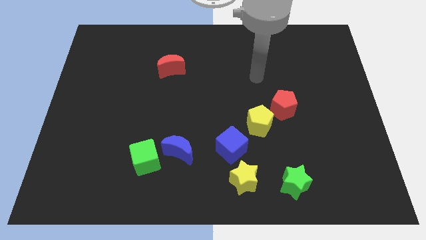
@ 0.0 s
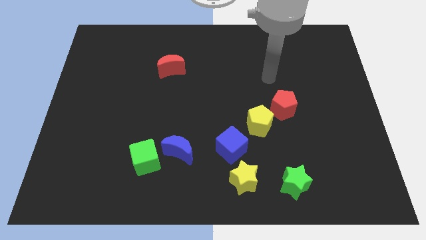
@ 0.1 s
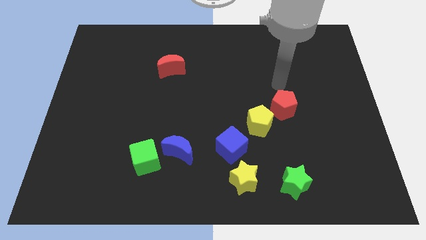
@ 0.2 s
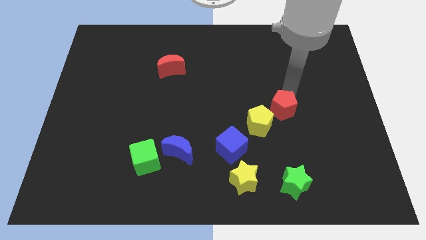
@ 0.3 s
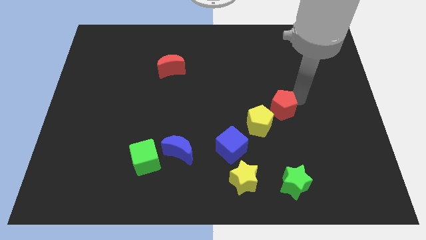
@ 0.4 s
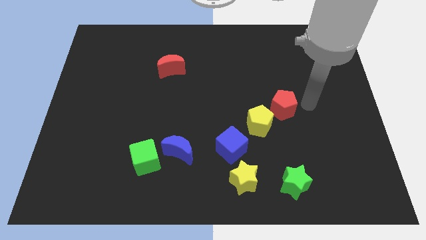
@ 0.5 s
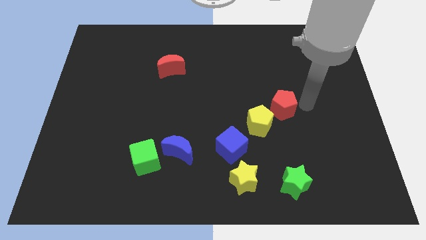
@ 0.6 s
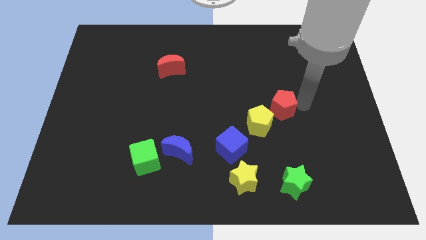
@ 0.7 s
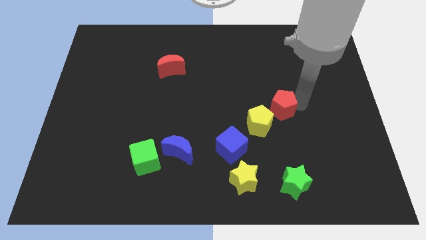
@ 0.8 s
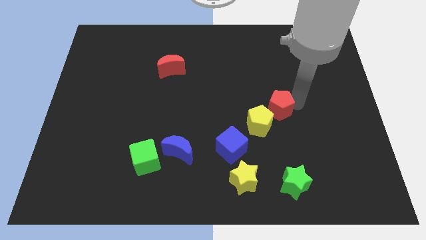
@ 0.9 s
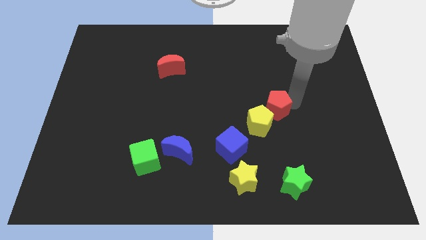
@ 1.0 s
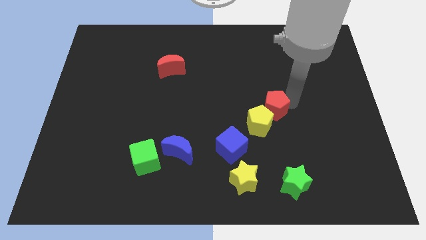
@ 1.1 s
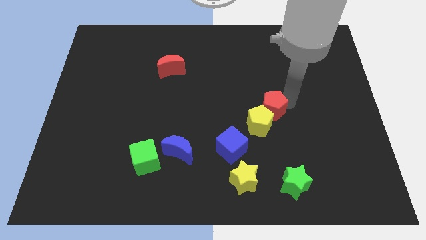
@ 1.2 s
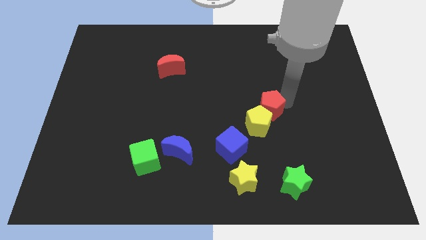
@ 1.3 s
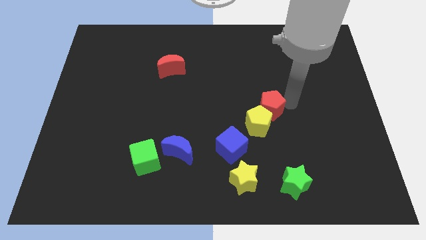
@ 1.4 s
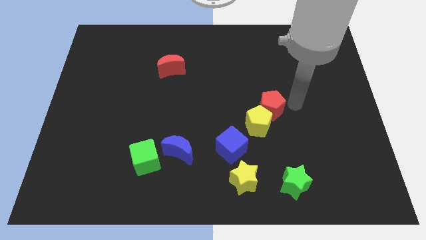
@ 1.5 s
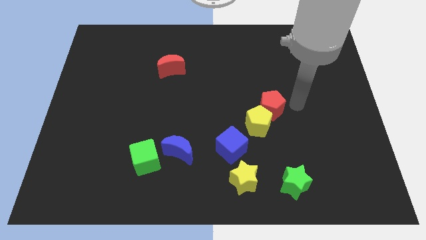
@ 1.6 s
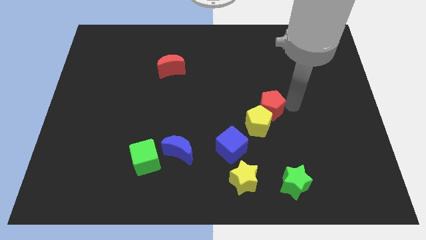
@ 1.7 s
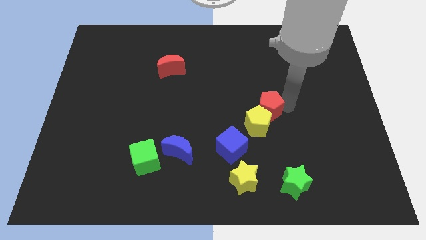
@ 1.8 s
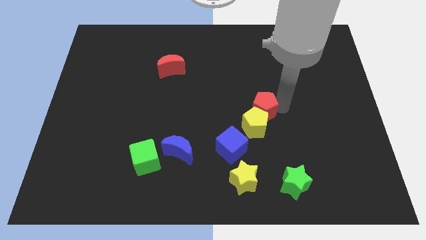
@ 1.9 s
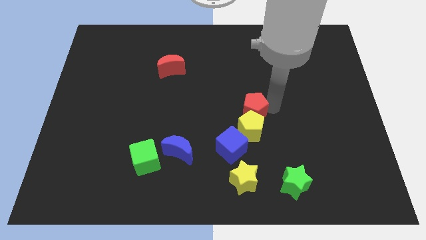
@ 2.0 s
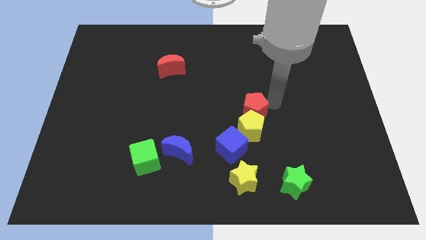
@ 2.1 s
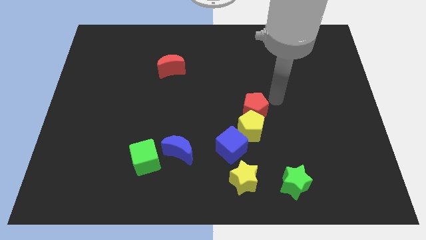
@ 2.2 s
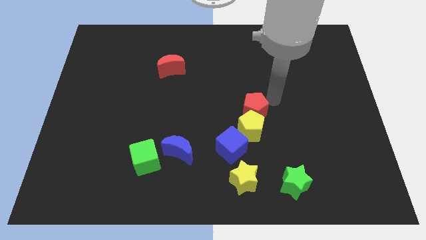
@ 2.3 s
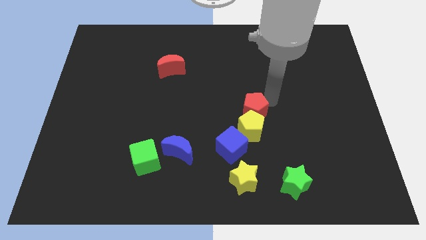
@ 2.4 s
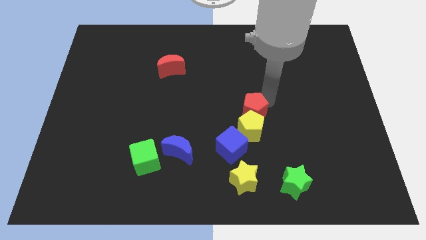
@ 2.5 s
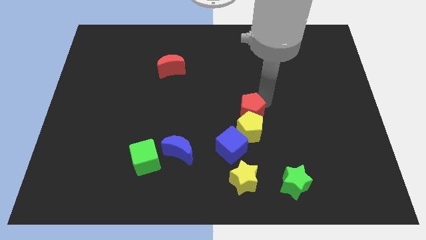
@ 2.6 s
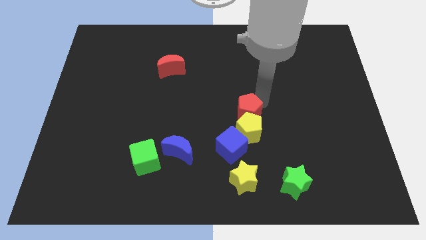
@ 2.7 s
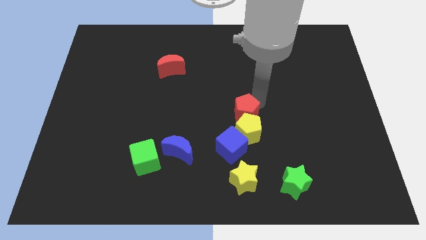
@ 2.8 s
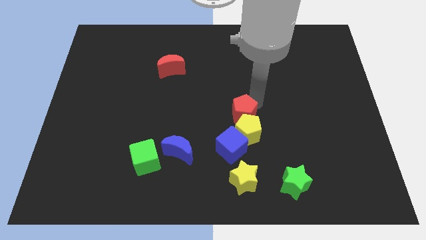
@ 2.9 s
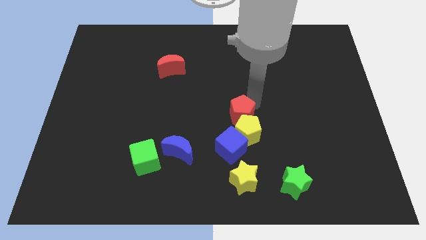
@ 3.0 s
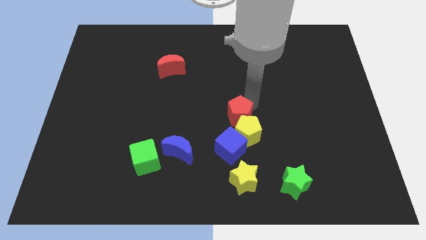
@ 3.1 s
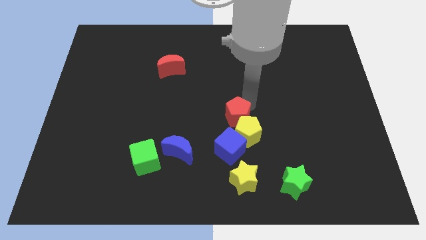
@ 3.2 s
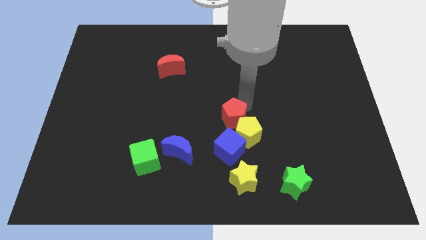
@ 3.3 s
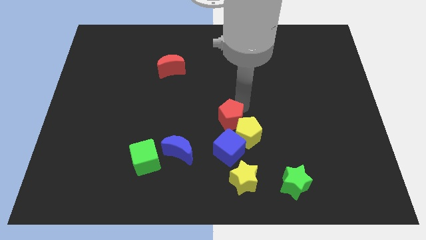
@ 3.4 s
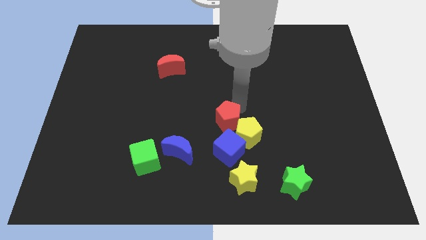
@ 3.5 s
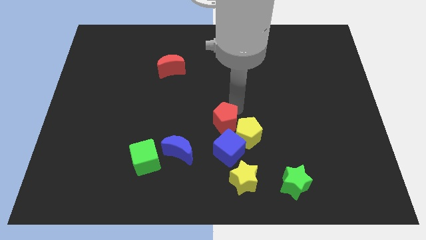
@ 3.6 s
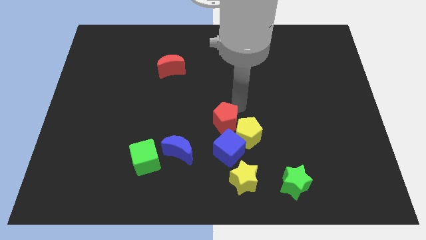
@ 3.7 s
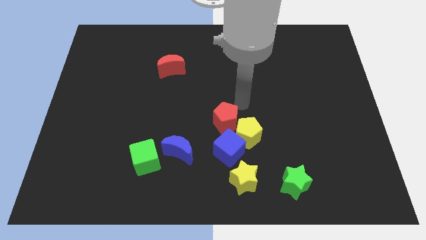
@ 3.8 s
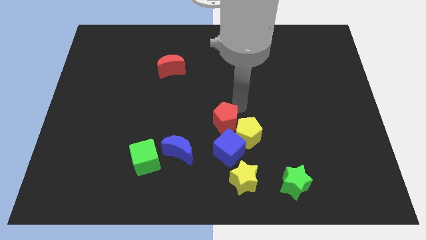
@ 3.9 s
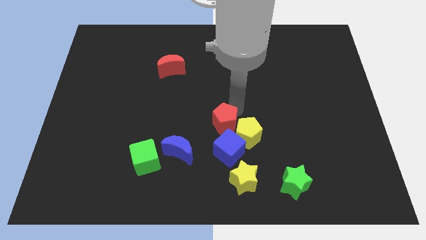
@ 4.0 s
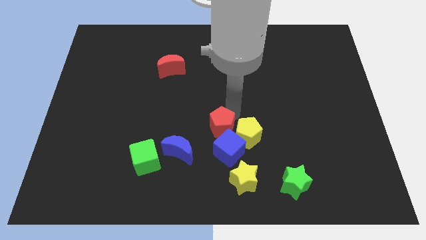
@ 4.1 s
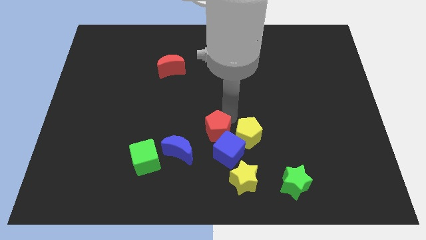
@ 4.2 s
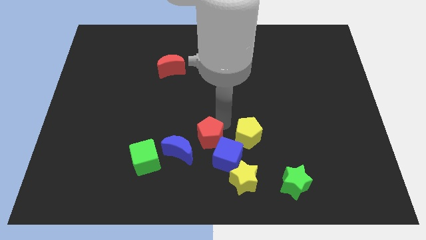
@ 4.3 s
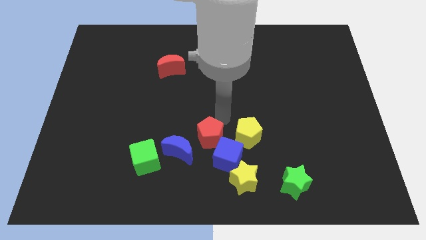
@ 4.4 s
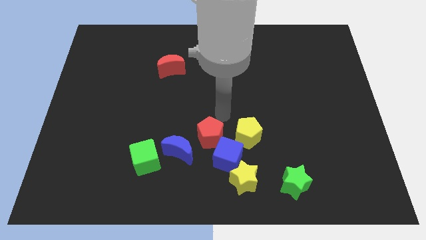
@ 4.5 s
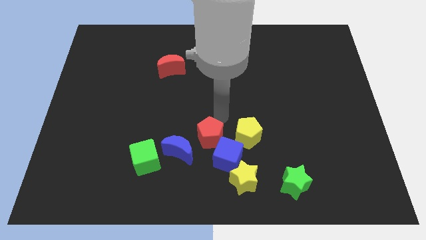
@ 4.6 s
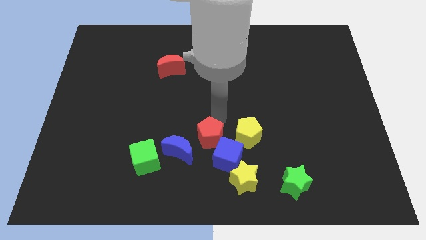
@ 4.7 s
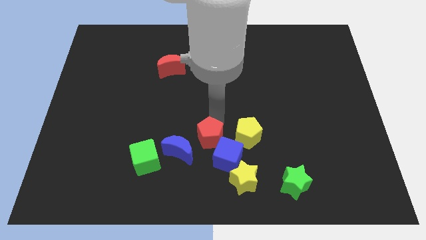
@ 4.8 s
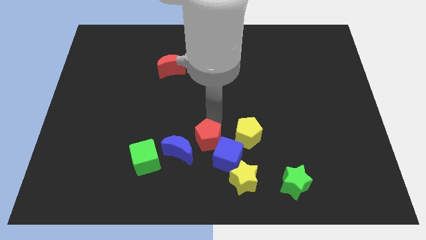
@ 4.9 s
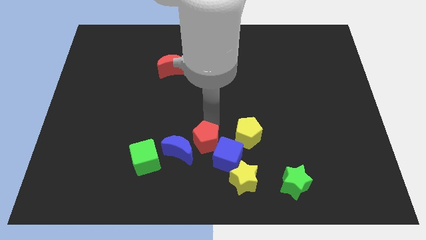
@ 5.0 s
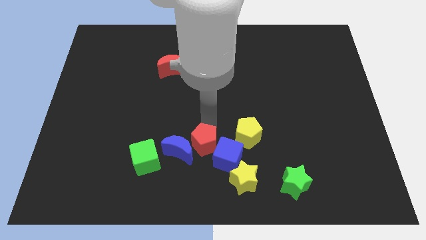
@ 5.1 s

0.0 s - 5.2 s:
slide the red pentagon right of the green cube

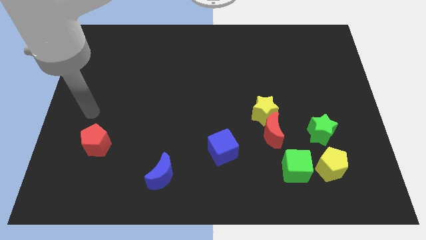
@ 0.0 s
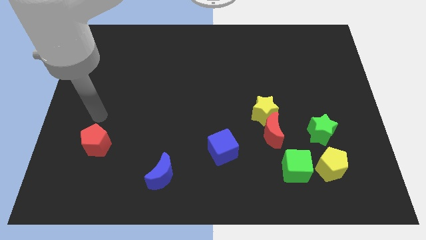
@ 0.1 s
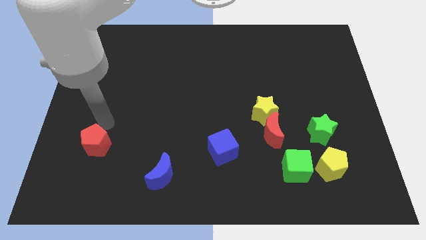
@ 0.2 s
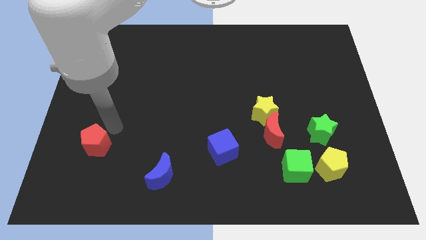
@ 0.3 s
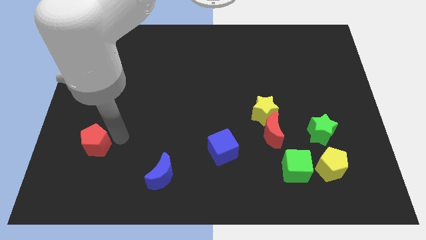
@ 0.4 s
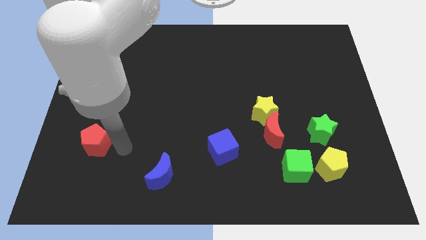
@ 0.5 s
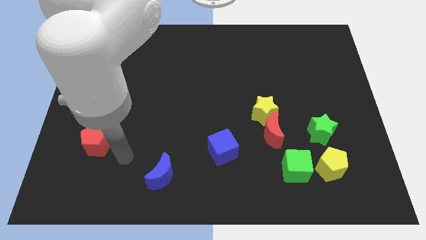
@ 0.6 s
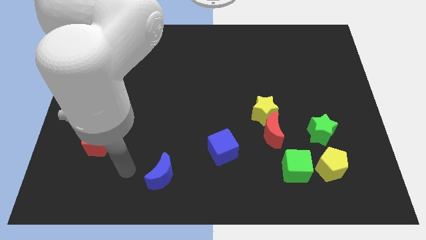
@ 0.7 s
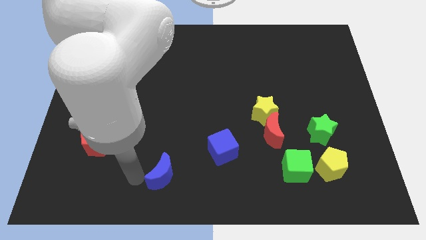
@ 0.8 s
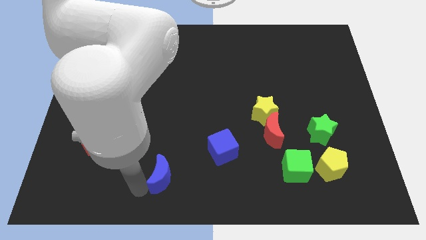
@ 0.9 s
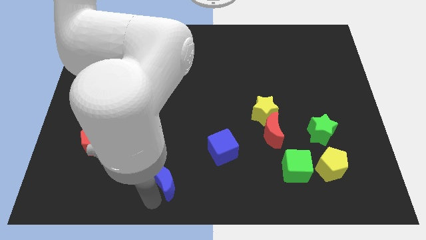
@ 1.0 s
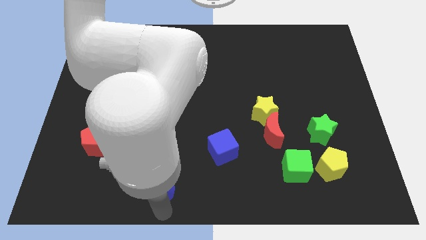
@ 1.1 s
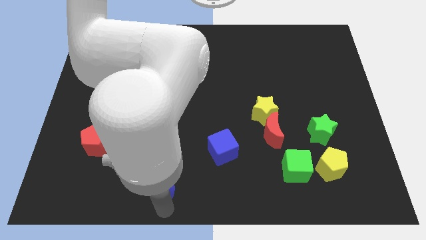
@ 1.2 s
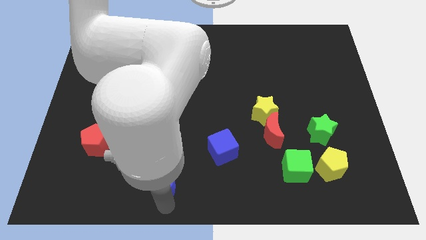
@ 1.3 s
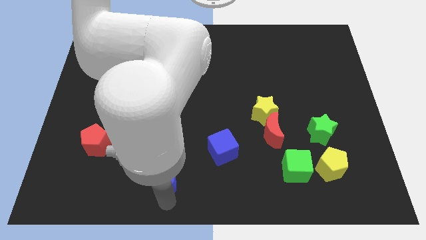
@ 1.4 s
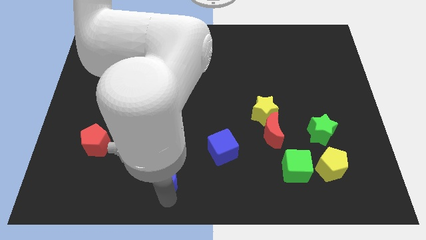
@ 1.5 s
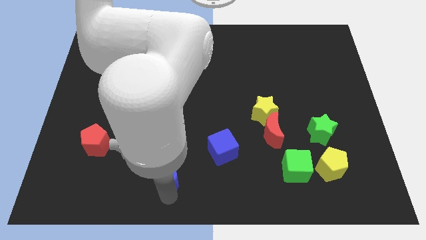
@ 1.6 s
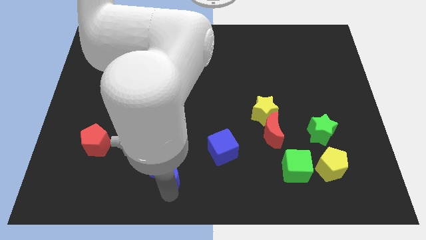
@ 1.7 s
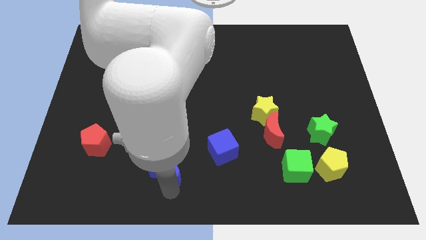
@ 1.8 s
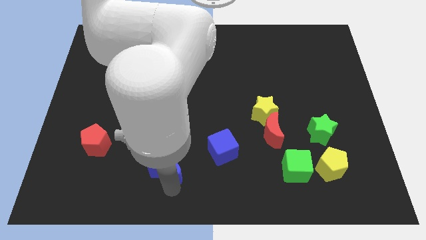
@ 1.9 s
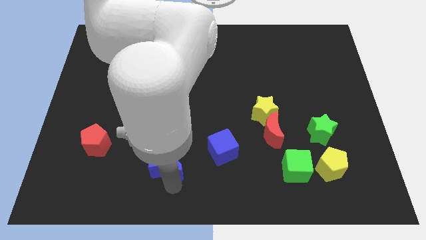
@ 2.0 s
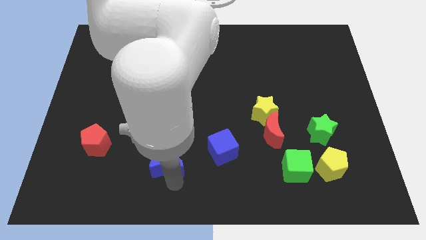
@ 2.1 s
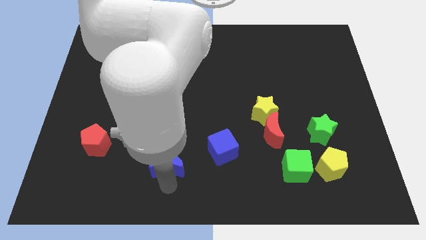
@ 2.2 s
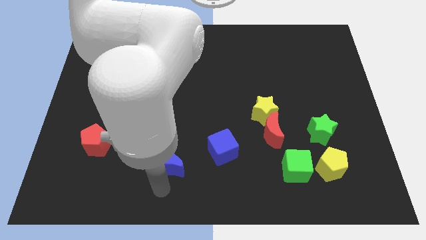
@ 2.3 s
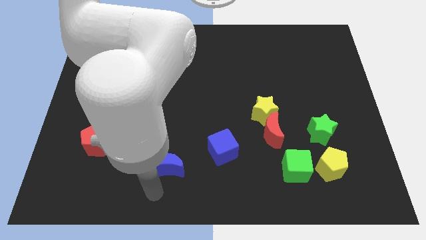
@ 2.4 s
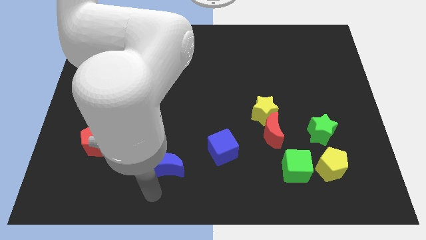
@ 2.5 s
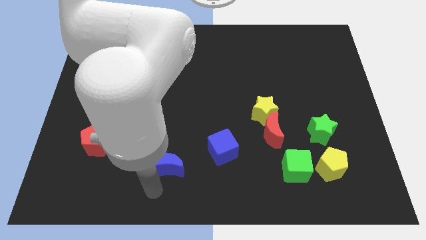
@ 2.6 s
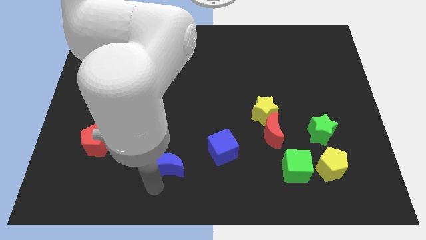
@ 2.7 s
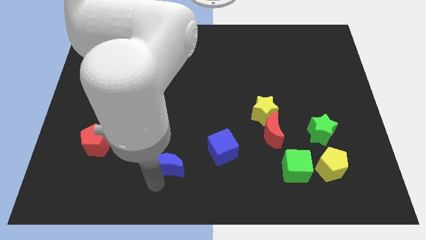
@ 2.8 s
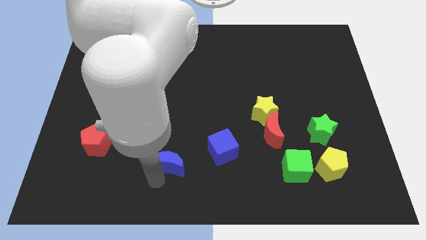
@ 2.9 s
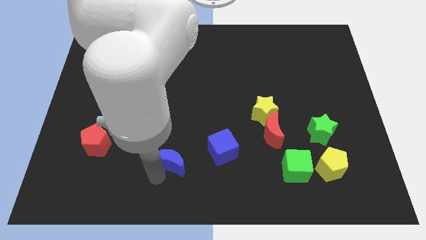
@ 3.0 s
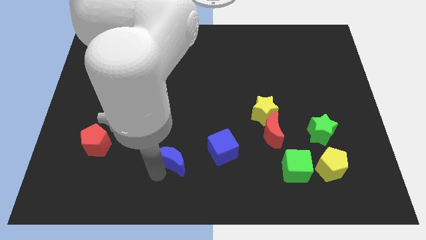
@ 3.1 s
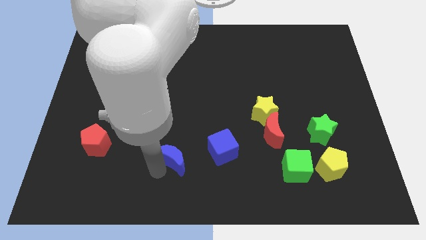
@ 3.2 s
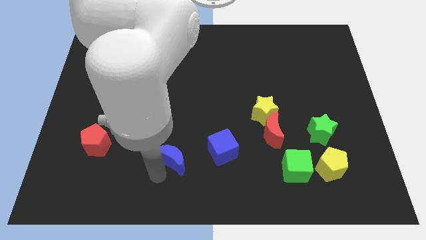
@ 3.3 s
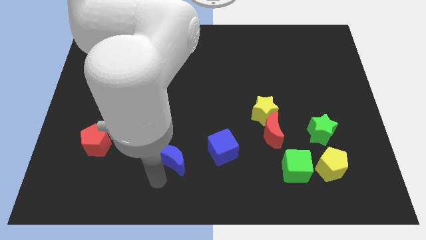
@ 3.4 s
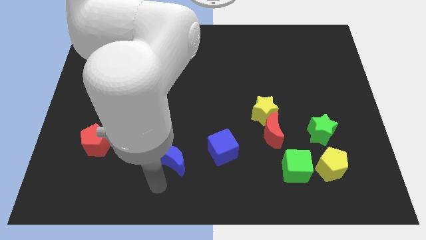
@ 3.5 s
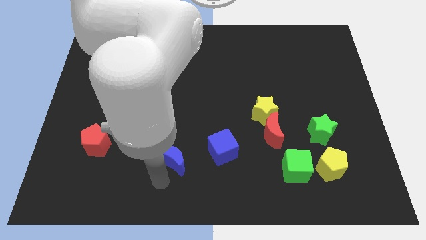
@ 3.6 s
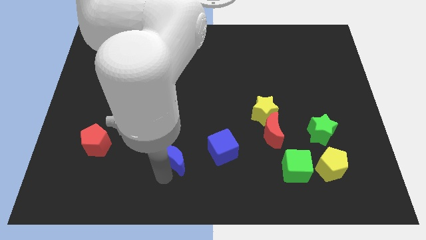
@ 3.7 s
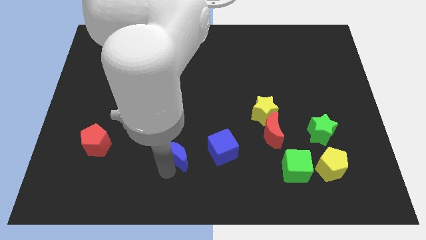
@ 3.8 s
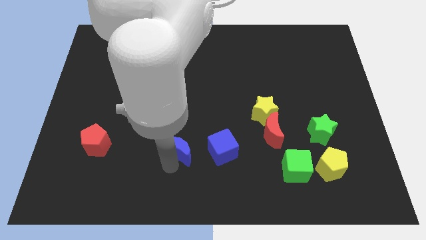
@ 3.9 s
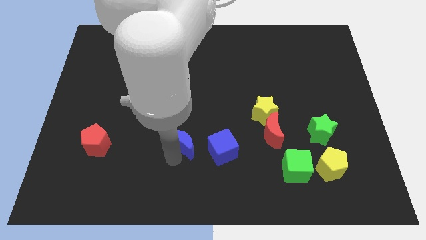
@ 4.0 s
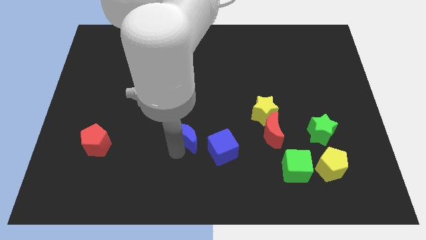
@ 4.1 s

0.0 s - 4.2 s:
push the blue moon diagonally up and to the left of the blue cube
